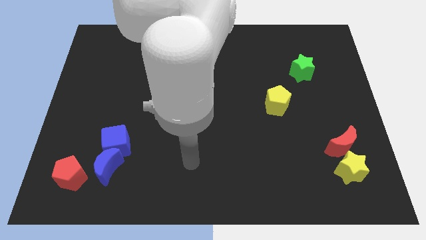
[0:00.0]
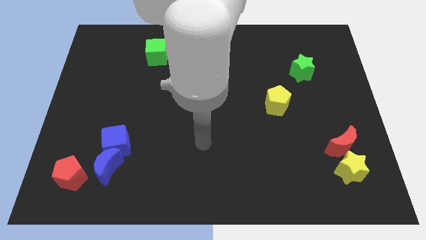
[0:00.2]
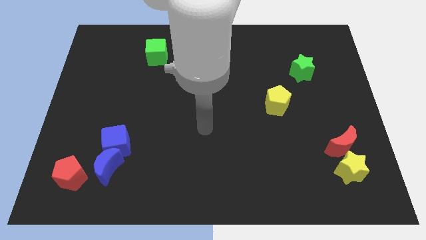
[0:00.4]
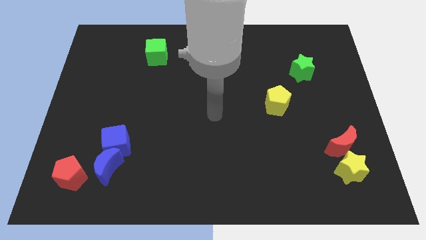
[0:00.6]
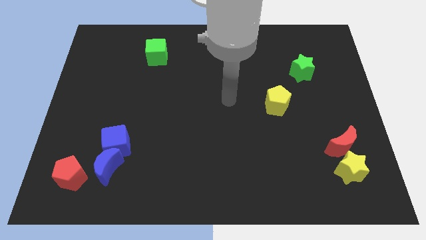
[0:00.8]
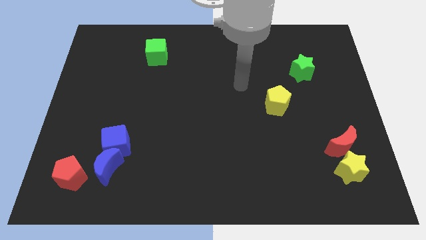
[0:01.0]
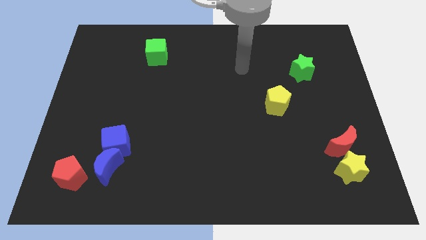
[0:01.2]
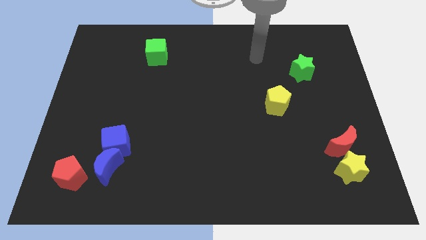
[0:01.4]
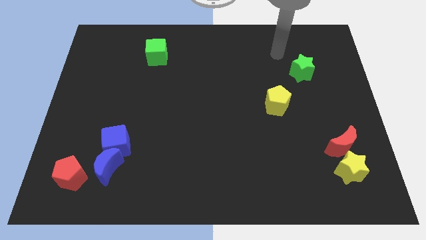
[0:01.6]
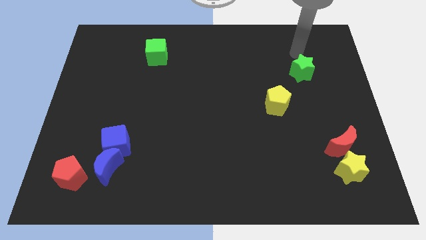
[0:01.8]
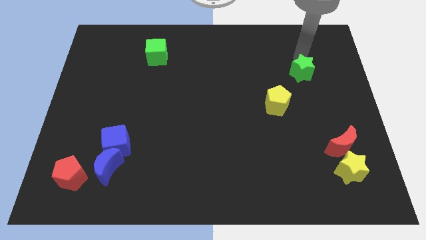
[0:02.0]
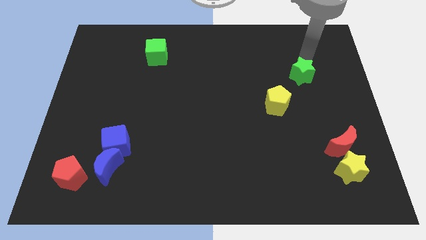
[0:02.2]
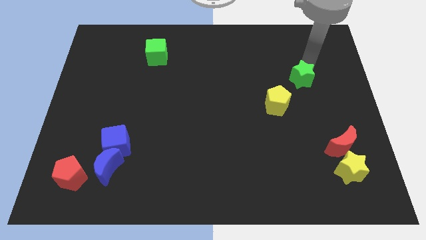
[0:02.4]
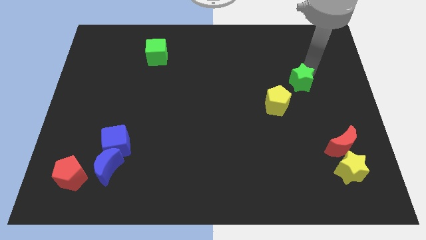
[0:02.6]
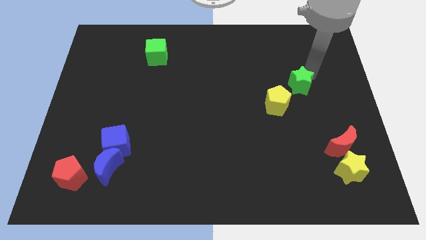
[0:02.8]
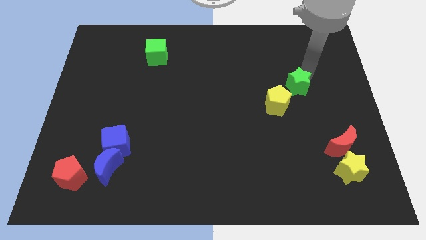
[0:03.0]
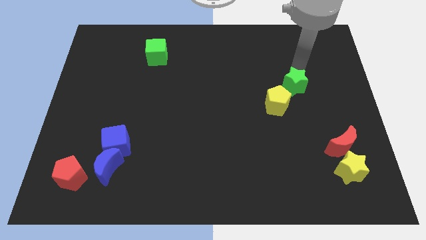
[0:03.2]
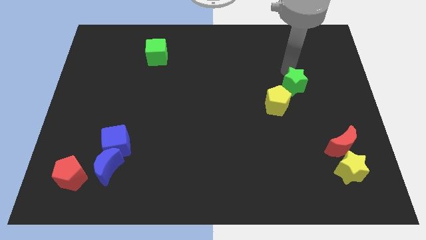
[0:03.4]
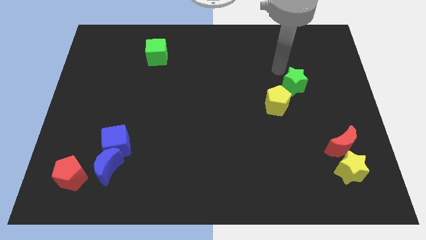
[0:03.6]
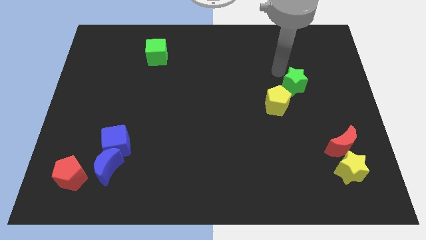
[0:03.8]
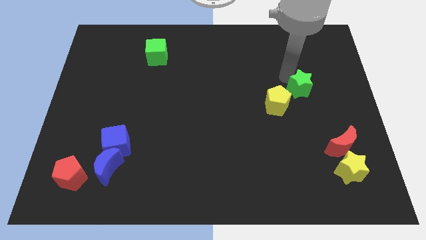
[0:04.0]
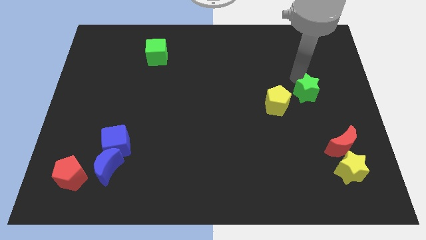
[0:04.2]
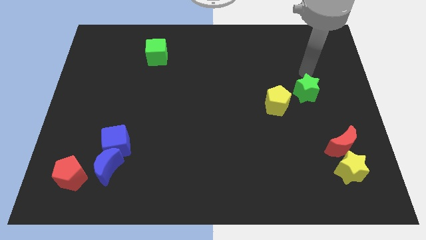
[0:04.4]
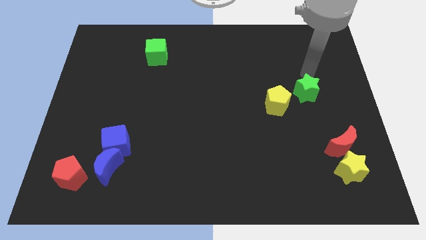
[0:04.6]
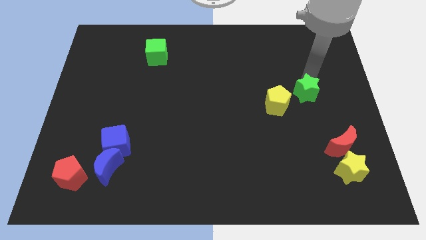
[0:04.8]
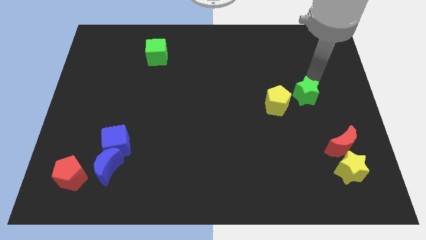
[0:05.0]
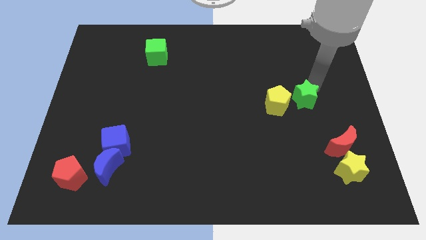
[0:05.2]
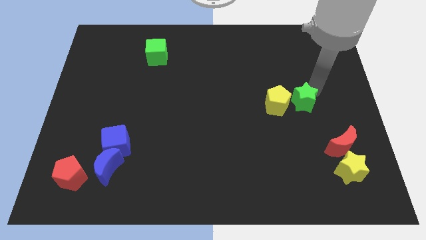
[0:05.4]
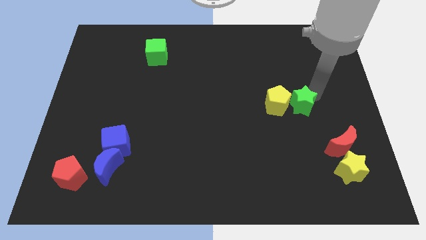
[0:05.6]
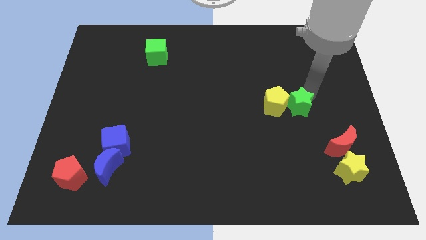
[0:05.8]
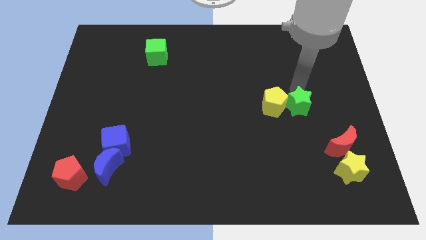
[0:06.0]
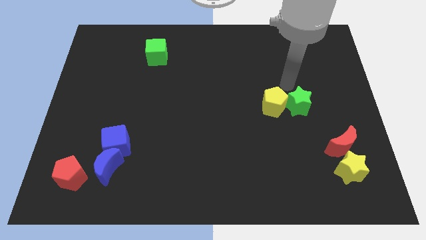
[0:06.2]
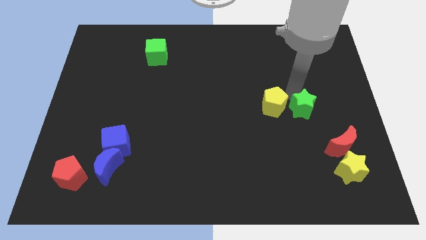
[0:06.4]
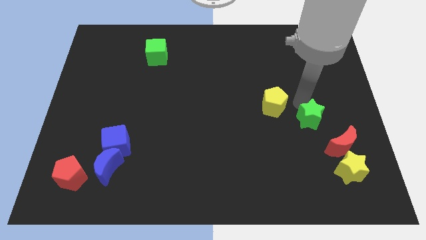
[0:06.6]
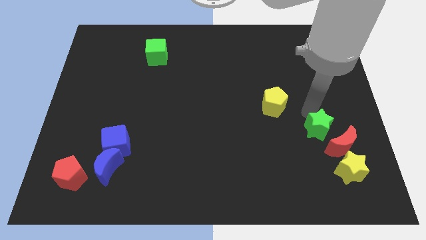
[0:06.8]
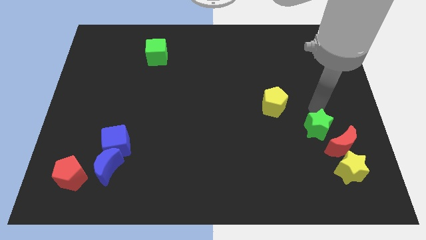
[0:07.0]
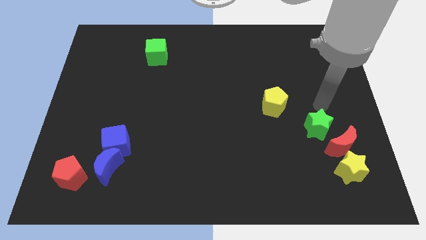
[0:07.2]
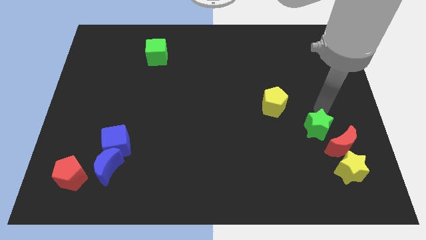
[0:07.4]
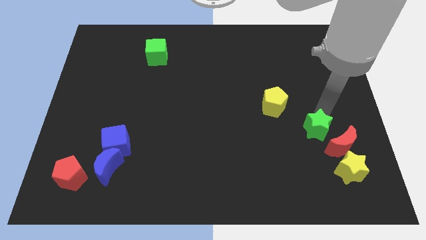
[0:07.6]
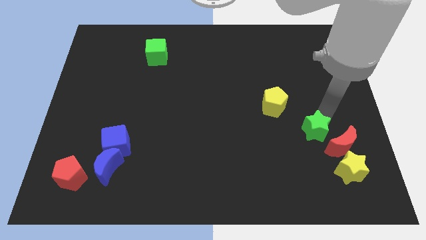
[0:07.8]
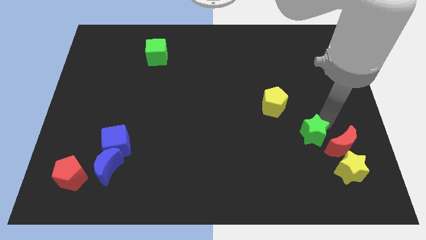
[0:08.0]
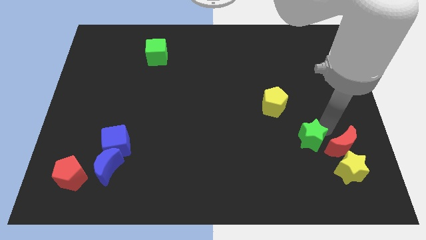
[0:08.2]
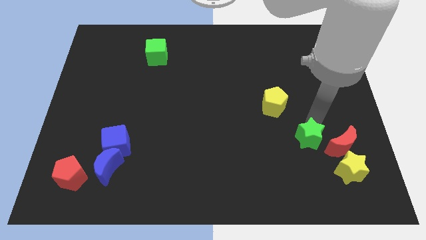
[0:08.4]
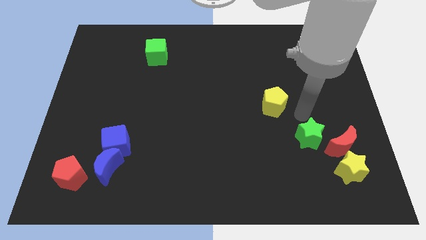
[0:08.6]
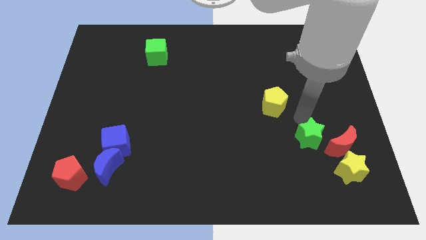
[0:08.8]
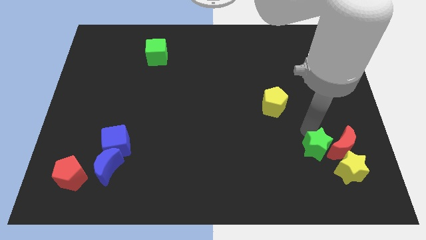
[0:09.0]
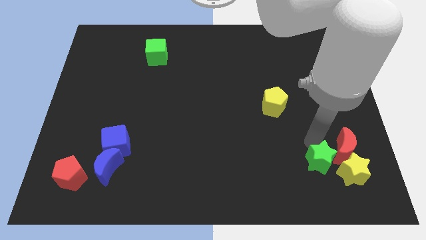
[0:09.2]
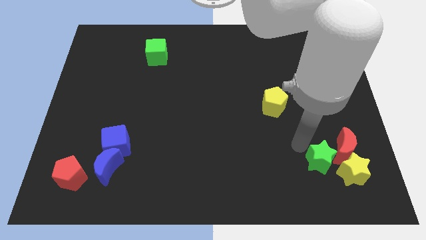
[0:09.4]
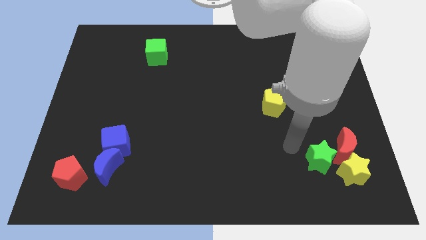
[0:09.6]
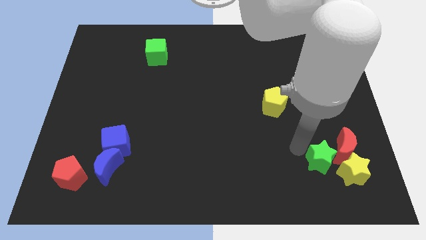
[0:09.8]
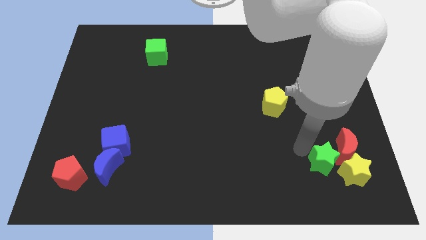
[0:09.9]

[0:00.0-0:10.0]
put the green star to the yellow star

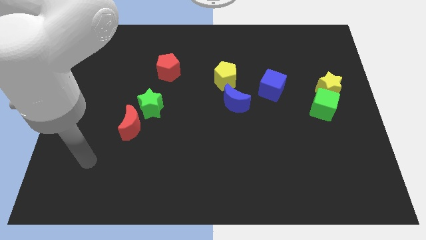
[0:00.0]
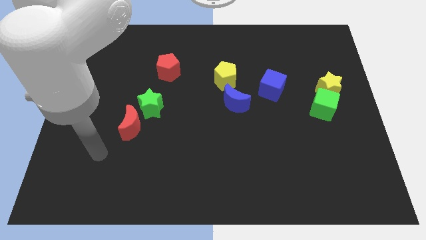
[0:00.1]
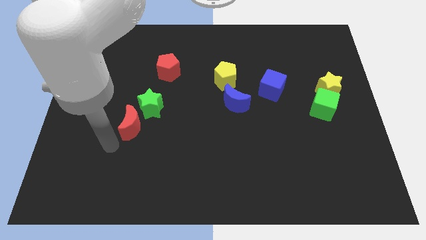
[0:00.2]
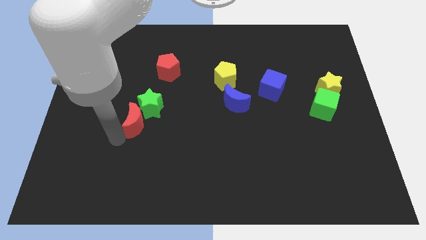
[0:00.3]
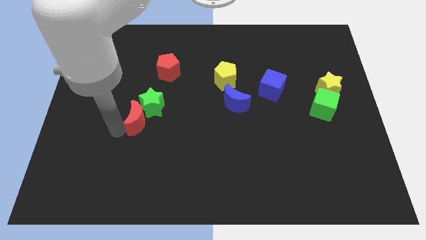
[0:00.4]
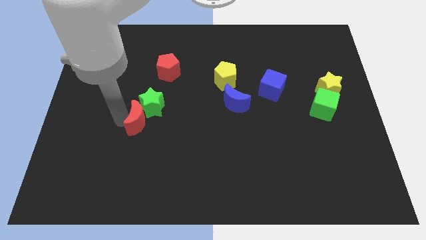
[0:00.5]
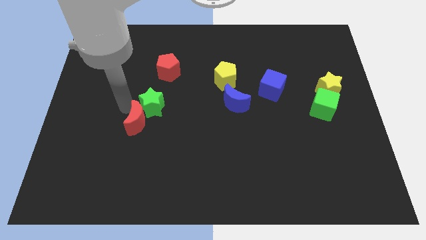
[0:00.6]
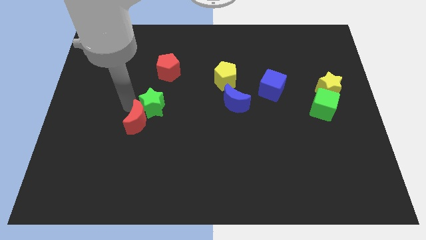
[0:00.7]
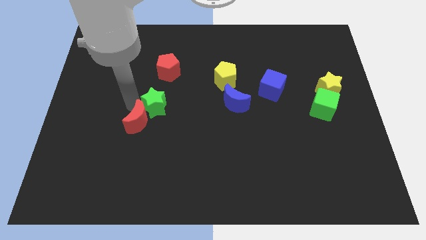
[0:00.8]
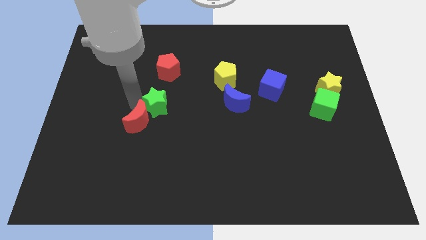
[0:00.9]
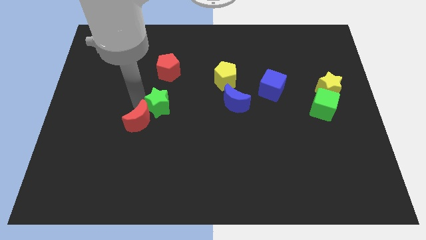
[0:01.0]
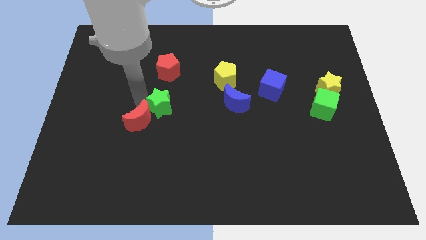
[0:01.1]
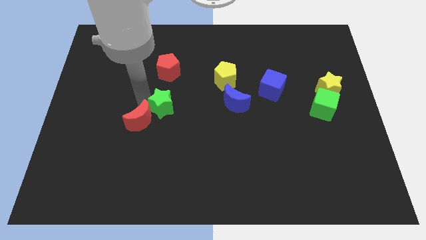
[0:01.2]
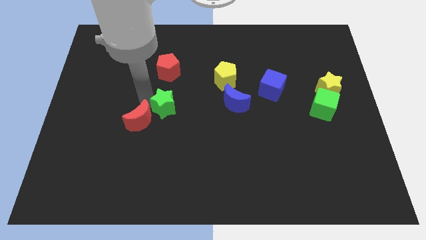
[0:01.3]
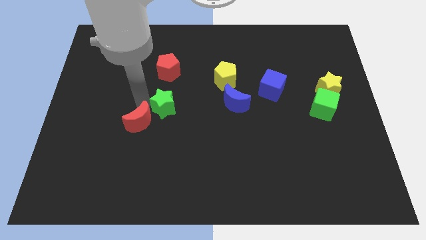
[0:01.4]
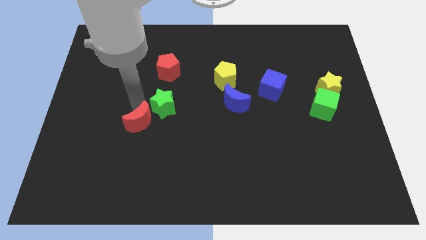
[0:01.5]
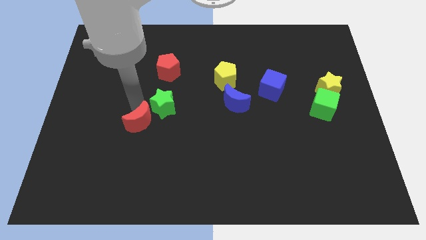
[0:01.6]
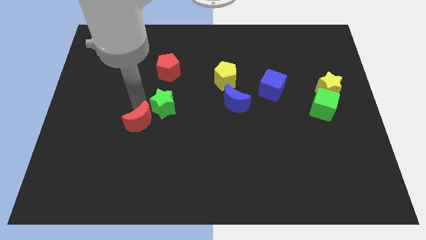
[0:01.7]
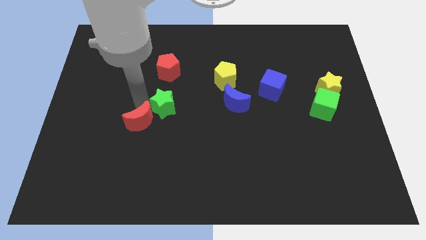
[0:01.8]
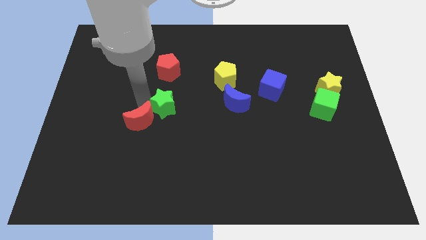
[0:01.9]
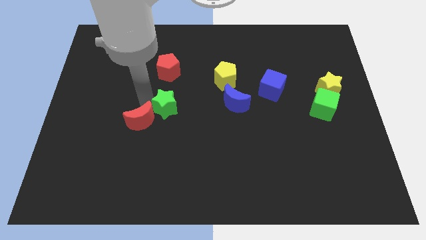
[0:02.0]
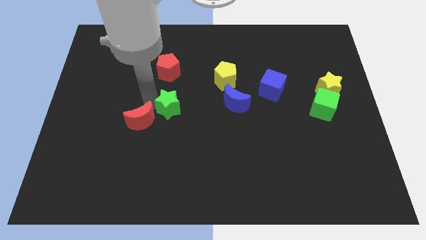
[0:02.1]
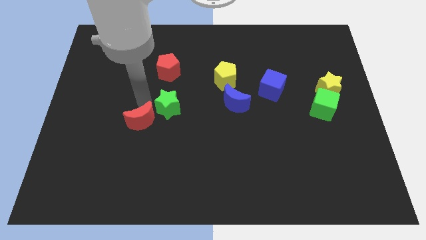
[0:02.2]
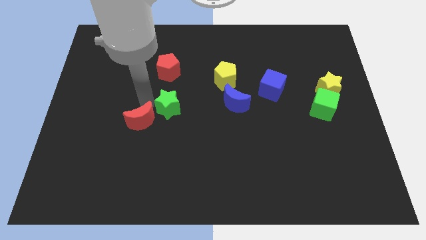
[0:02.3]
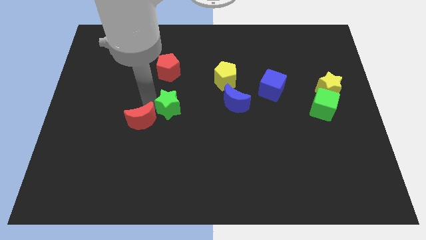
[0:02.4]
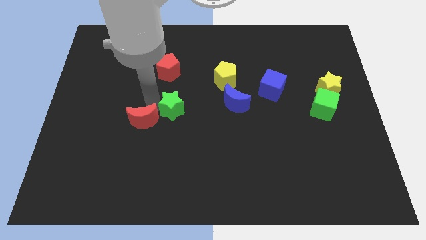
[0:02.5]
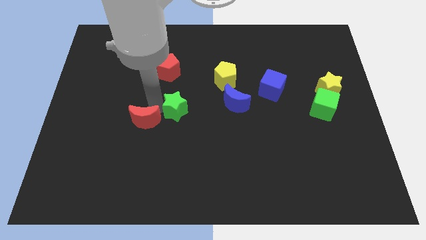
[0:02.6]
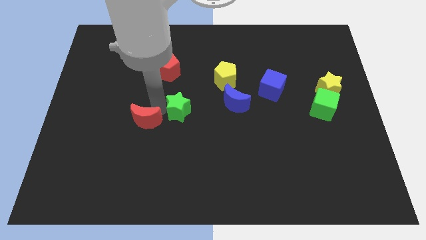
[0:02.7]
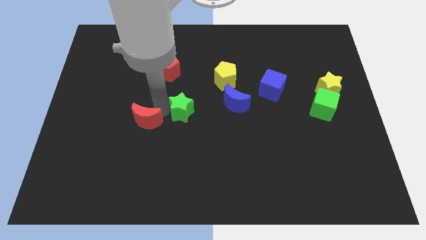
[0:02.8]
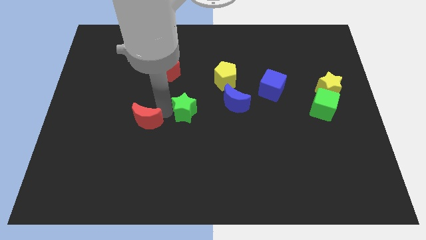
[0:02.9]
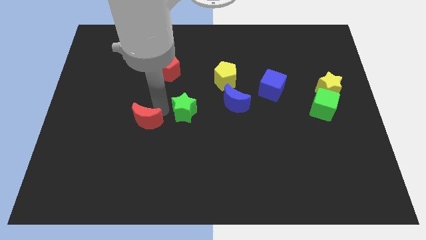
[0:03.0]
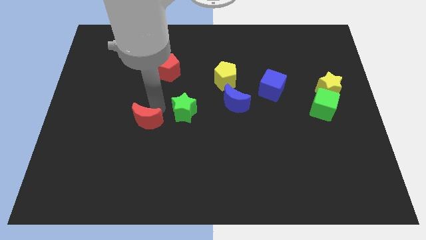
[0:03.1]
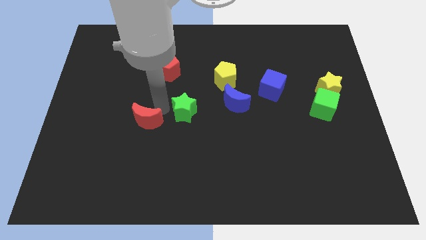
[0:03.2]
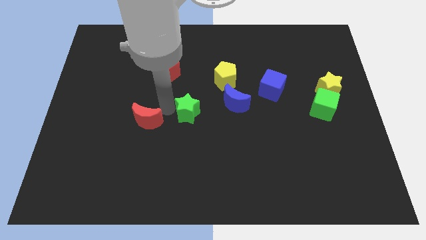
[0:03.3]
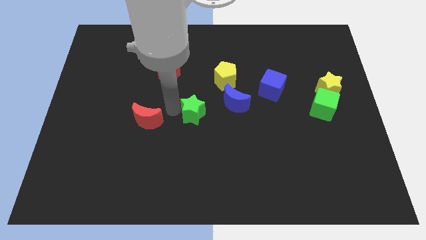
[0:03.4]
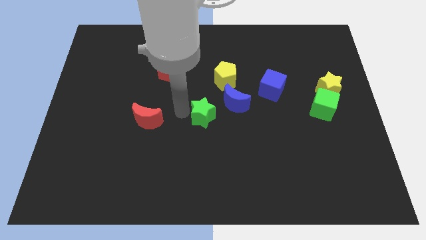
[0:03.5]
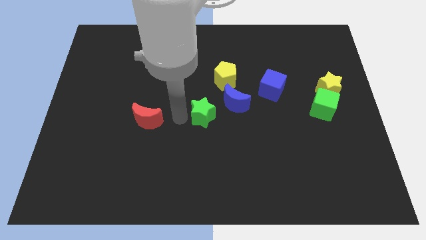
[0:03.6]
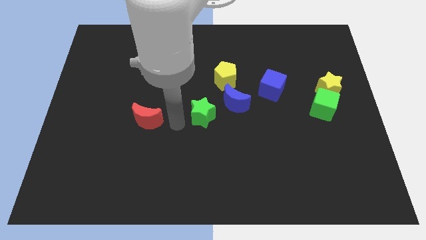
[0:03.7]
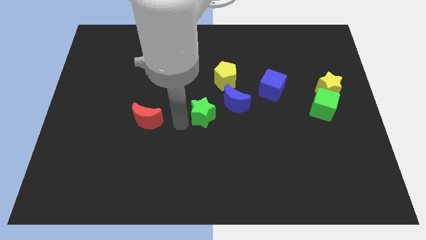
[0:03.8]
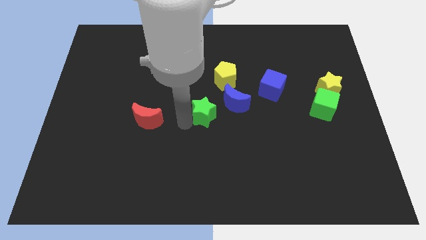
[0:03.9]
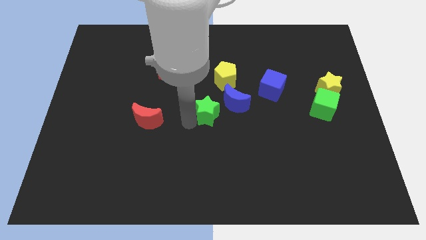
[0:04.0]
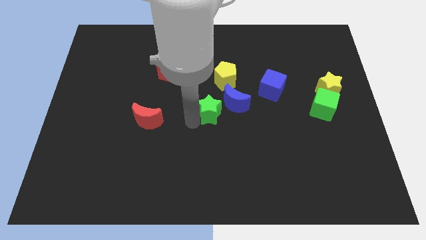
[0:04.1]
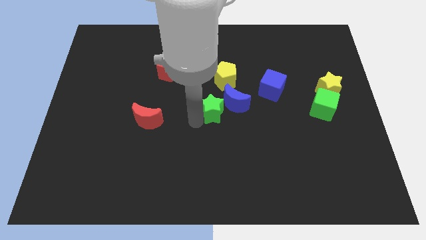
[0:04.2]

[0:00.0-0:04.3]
put the green star close to the blue moon
